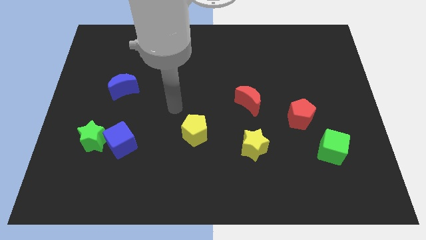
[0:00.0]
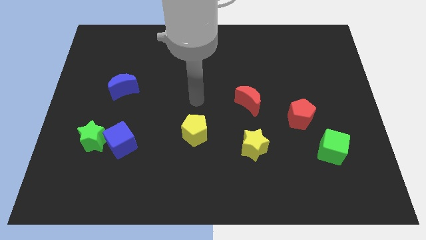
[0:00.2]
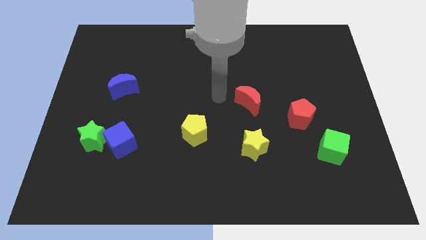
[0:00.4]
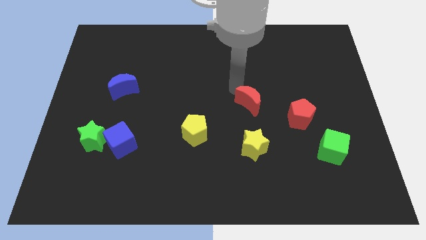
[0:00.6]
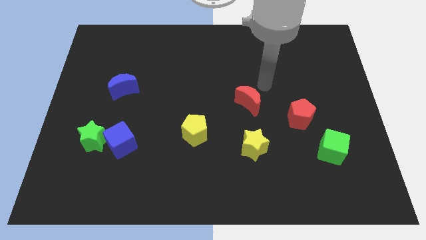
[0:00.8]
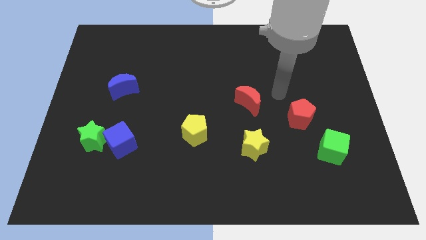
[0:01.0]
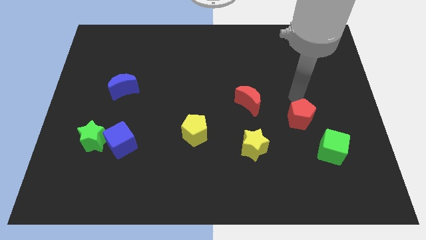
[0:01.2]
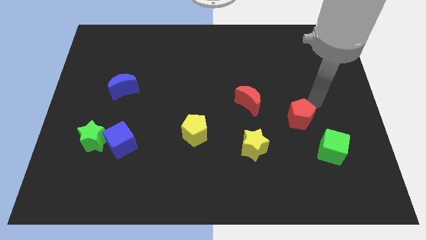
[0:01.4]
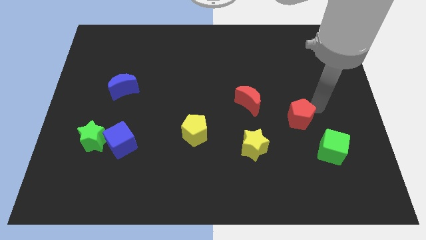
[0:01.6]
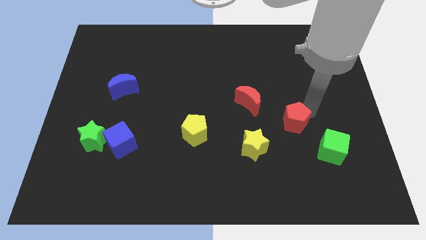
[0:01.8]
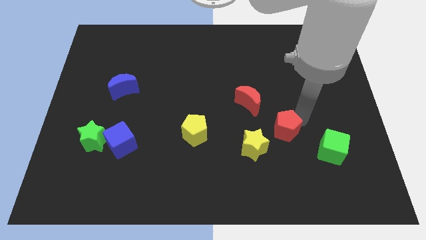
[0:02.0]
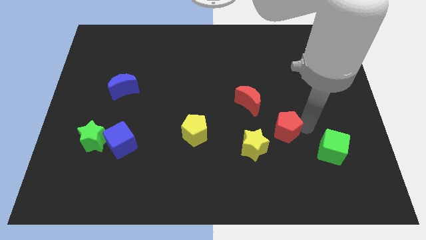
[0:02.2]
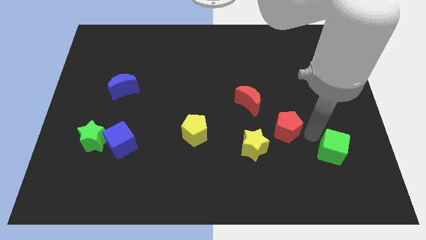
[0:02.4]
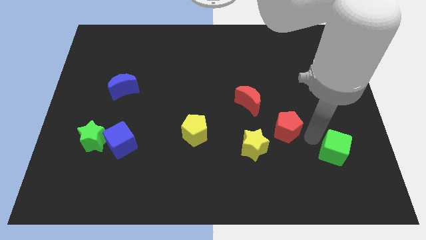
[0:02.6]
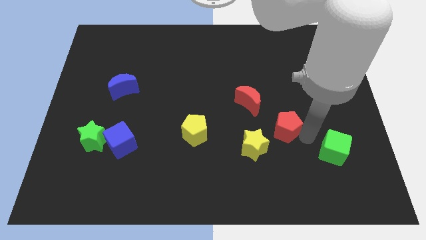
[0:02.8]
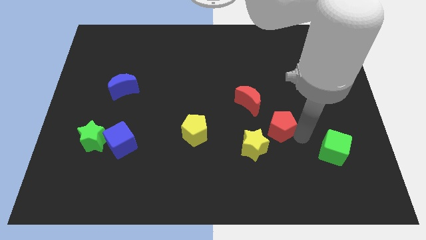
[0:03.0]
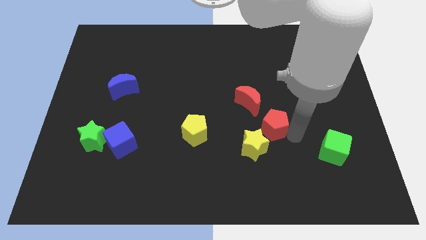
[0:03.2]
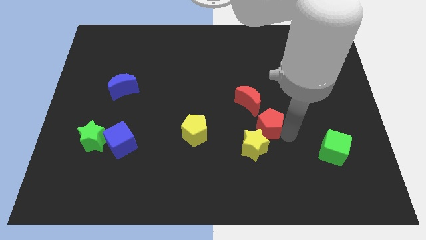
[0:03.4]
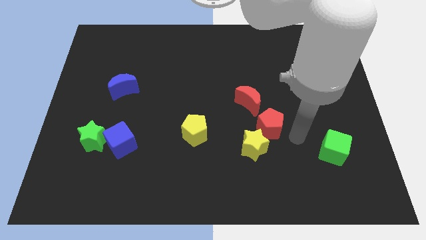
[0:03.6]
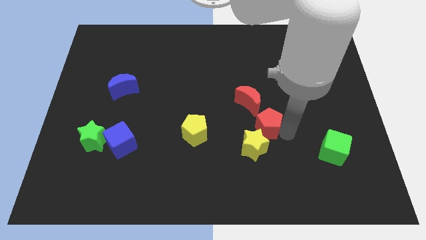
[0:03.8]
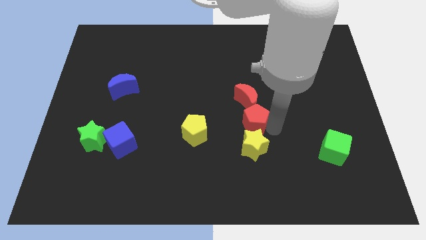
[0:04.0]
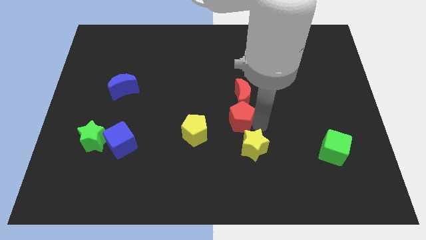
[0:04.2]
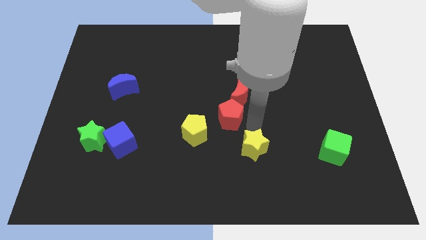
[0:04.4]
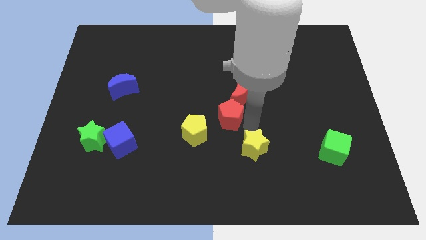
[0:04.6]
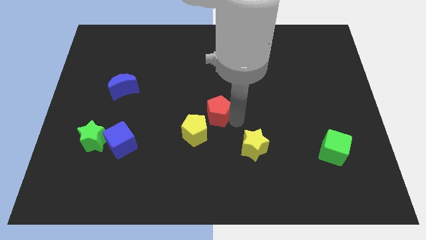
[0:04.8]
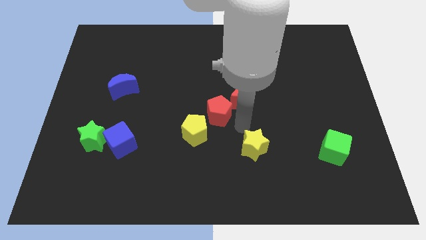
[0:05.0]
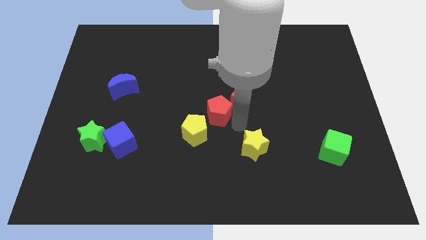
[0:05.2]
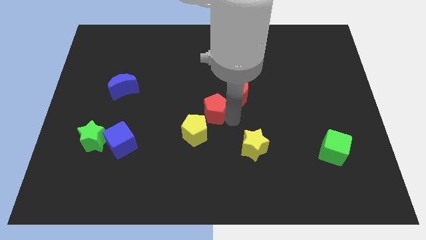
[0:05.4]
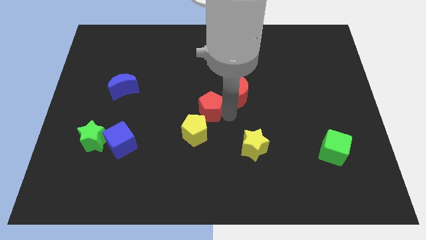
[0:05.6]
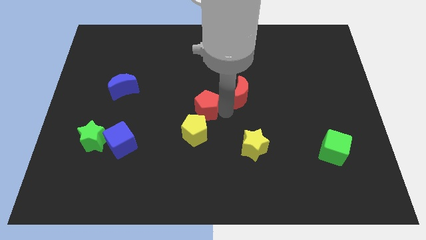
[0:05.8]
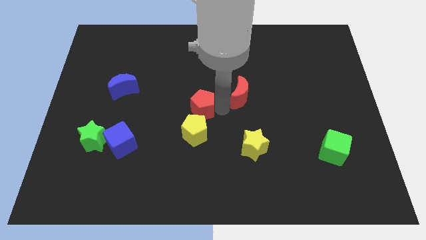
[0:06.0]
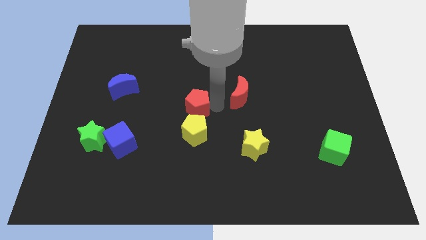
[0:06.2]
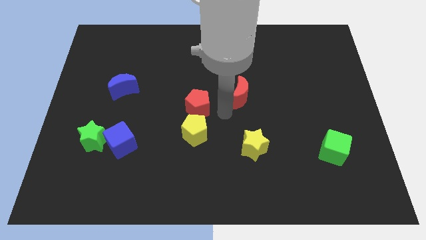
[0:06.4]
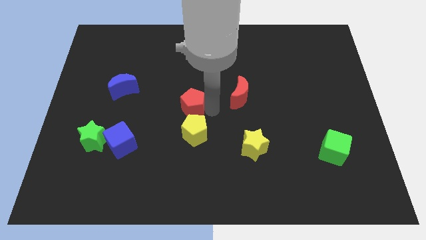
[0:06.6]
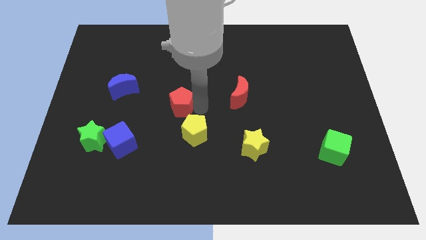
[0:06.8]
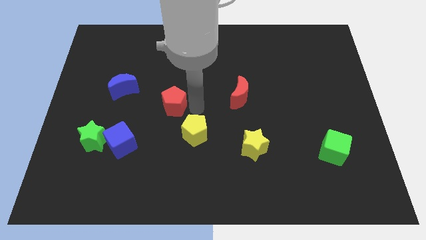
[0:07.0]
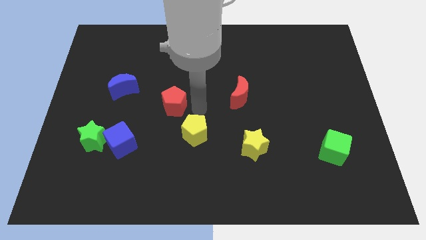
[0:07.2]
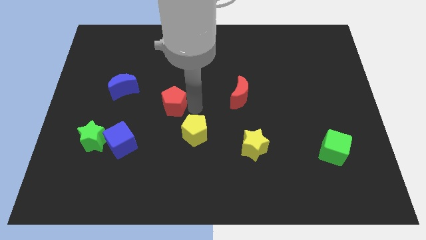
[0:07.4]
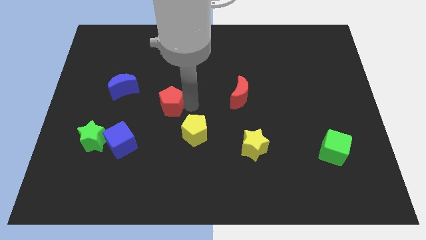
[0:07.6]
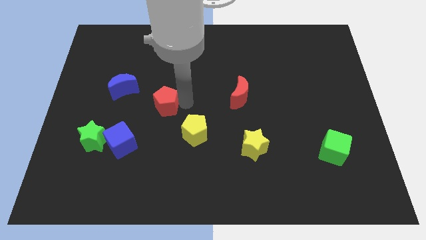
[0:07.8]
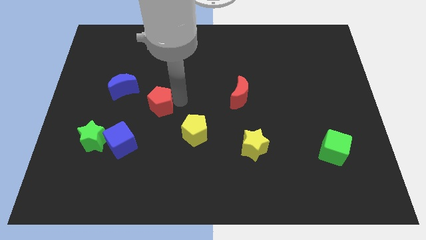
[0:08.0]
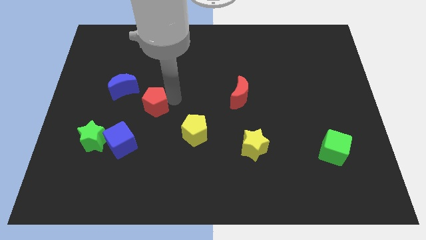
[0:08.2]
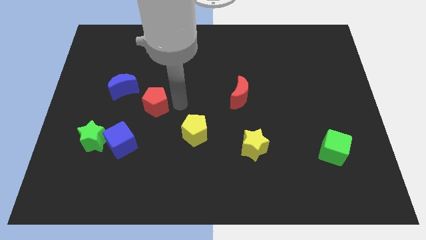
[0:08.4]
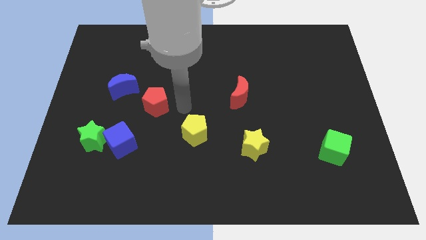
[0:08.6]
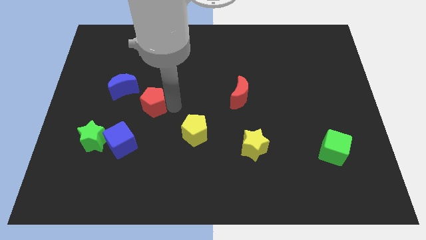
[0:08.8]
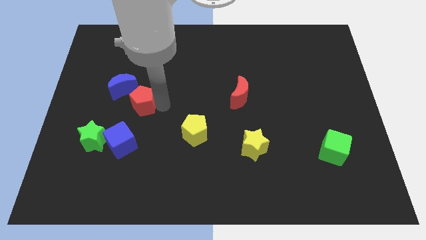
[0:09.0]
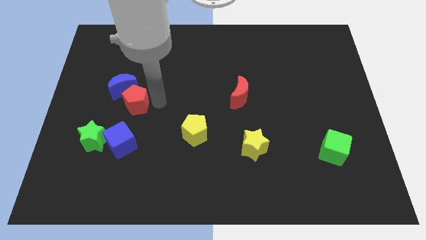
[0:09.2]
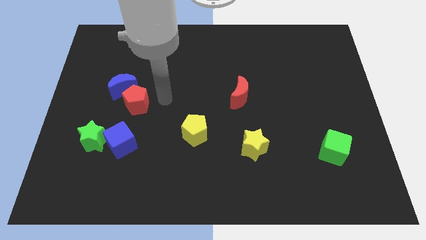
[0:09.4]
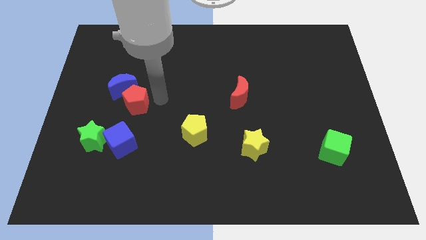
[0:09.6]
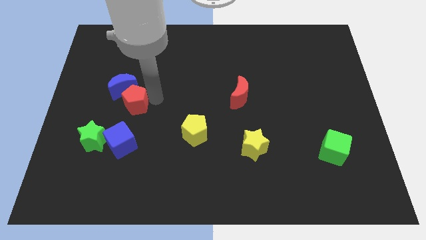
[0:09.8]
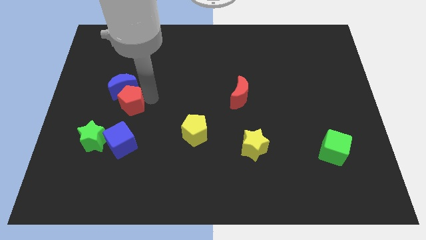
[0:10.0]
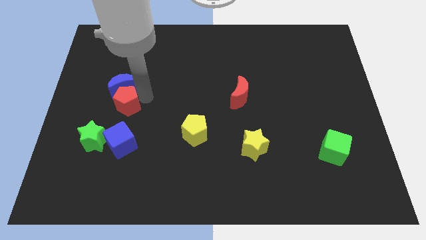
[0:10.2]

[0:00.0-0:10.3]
move the red pentagon to the bottom left of the blue moon

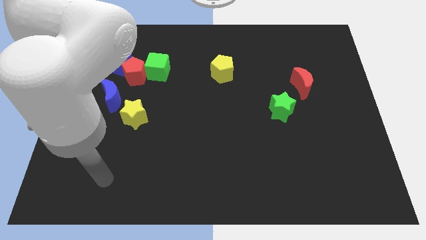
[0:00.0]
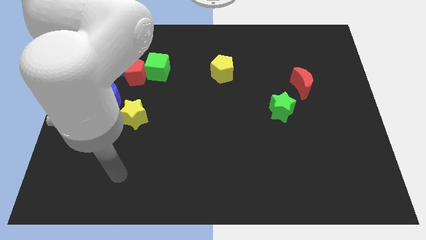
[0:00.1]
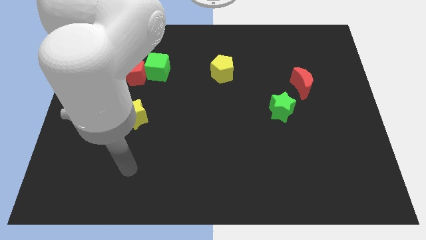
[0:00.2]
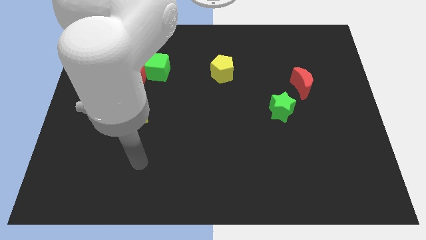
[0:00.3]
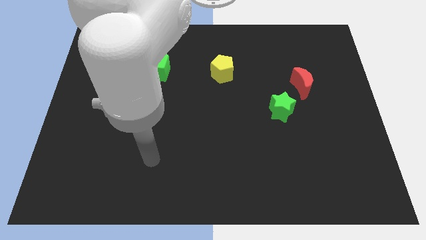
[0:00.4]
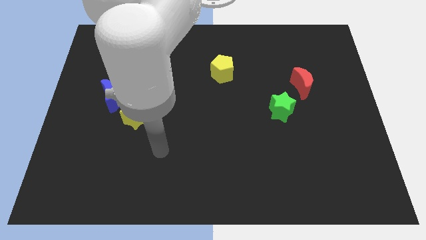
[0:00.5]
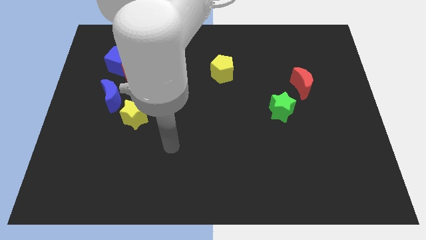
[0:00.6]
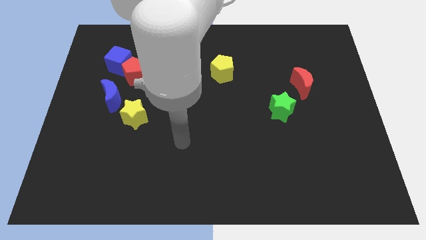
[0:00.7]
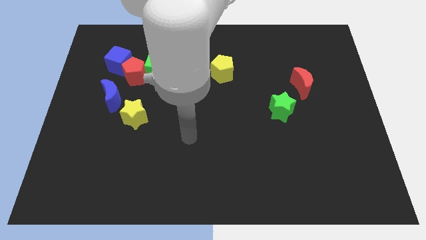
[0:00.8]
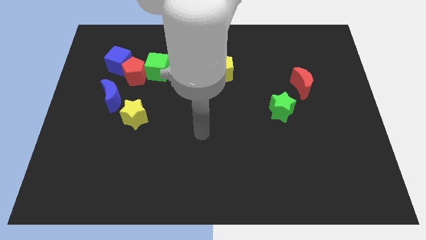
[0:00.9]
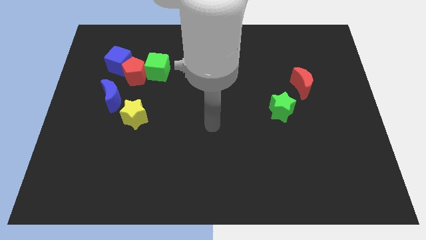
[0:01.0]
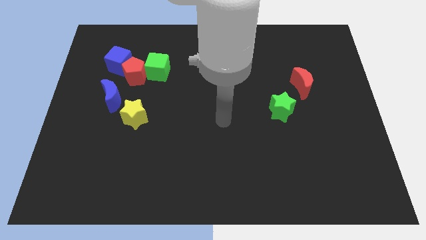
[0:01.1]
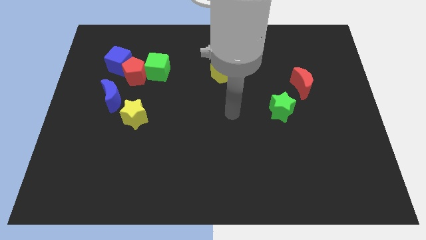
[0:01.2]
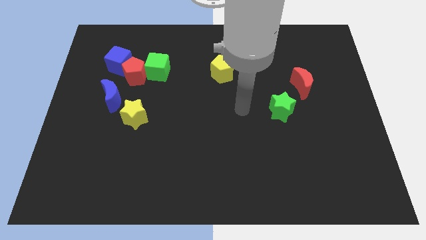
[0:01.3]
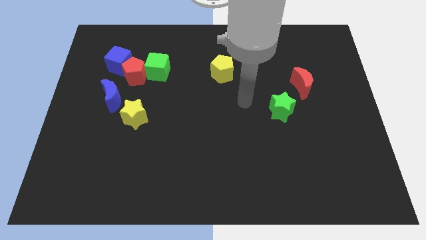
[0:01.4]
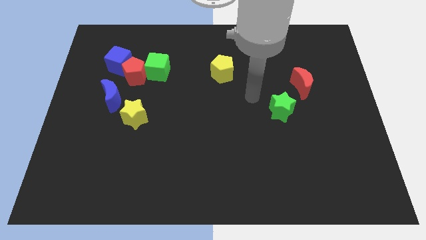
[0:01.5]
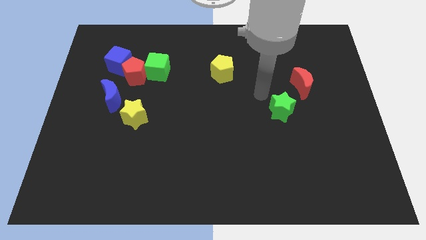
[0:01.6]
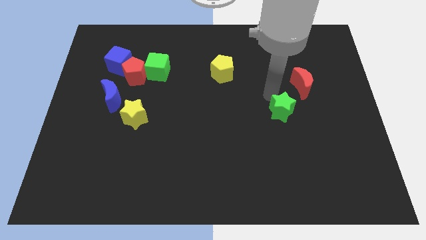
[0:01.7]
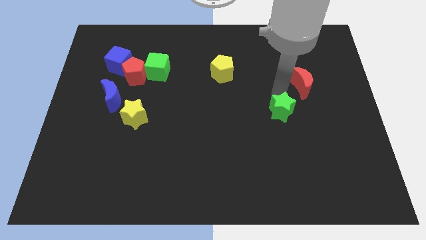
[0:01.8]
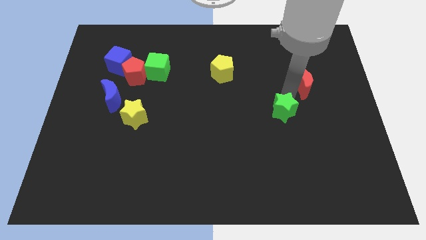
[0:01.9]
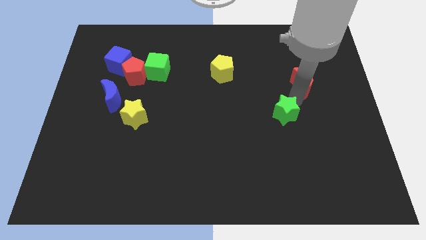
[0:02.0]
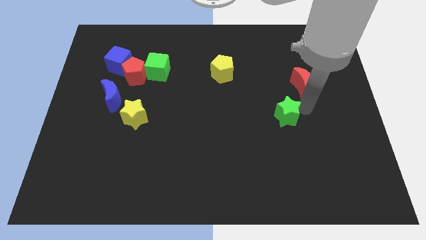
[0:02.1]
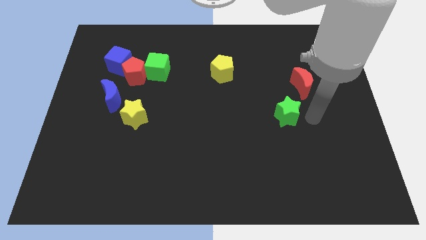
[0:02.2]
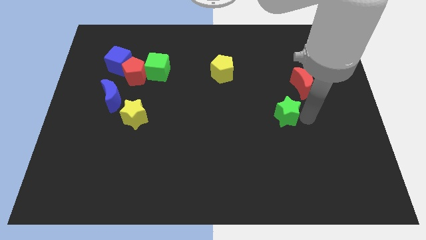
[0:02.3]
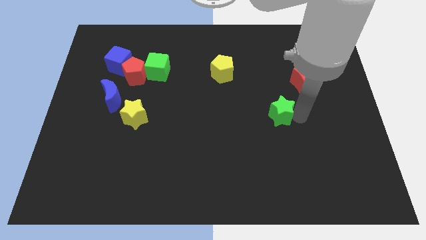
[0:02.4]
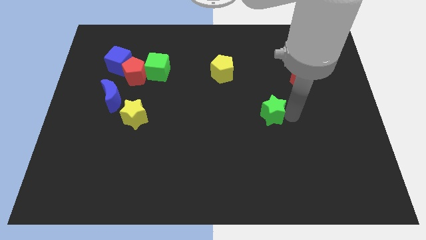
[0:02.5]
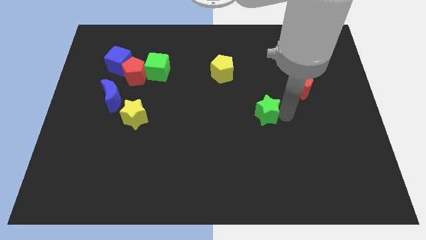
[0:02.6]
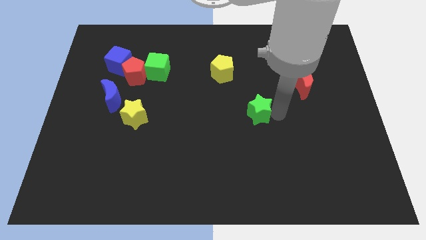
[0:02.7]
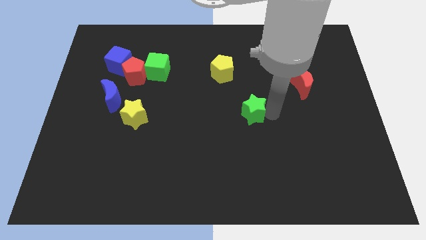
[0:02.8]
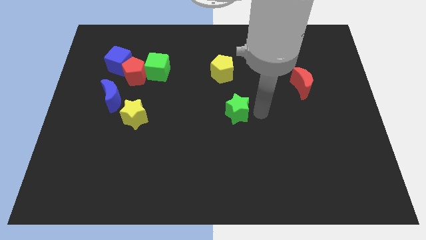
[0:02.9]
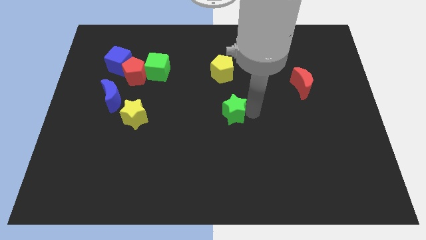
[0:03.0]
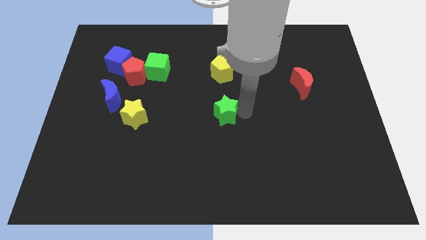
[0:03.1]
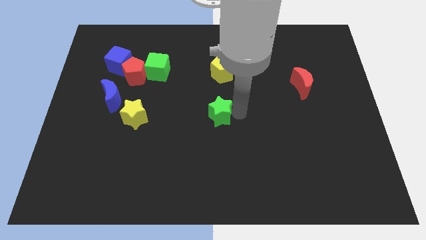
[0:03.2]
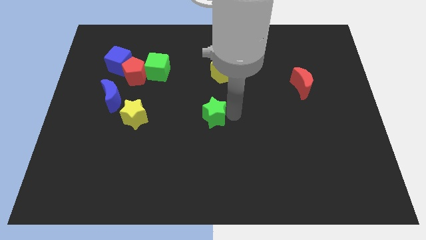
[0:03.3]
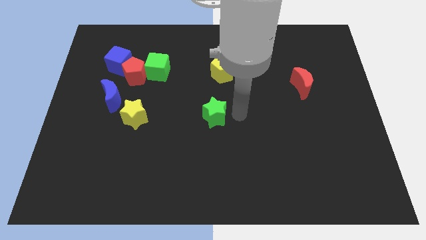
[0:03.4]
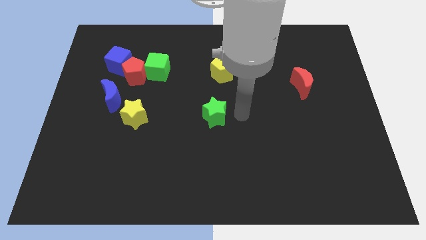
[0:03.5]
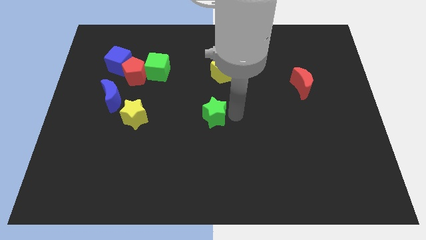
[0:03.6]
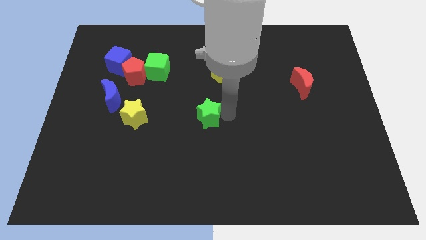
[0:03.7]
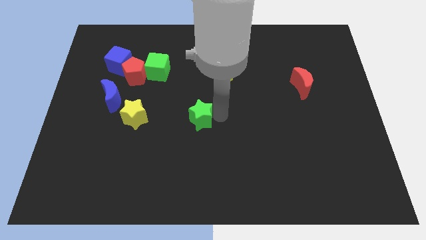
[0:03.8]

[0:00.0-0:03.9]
put the green star to the right side of the yellow star
